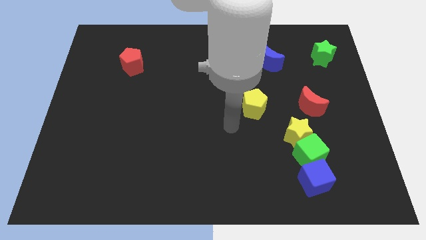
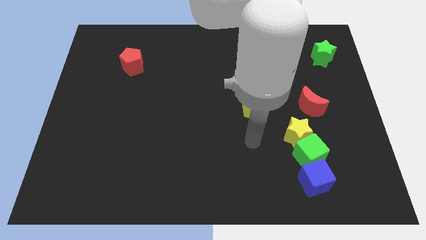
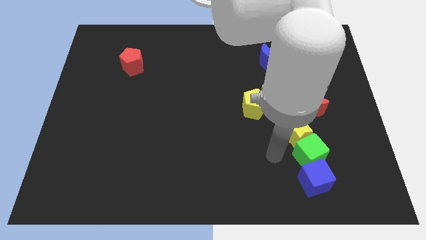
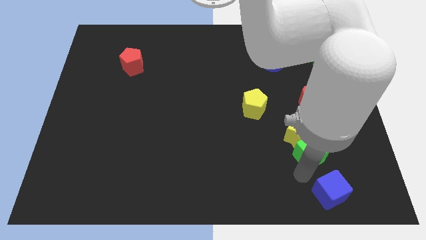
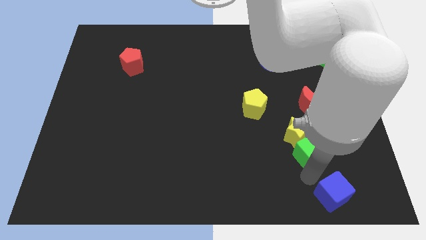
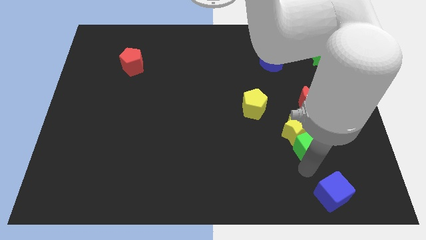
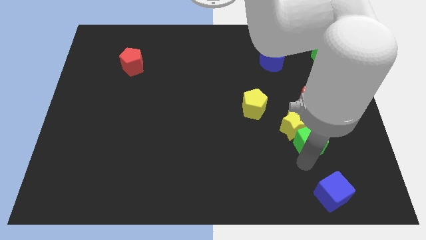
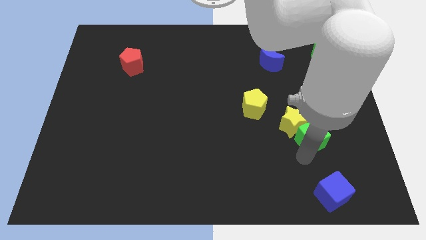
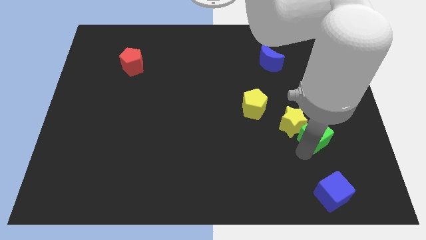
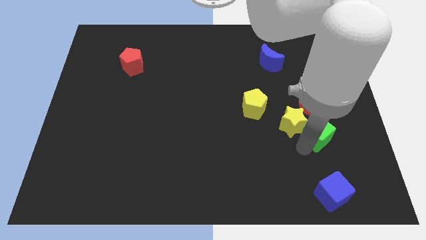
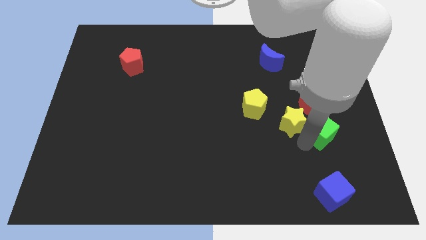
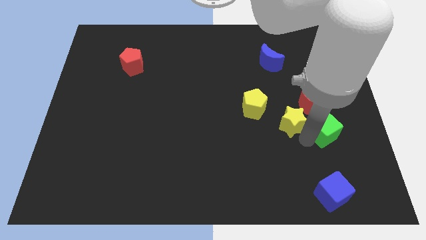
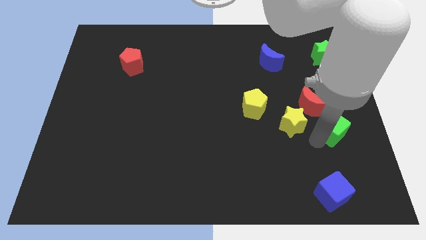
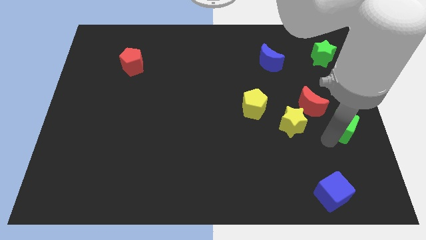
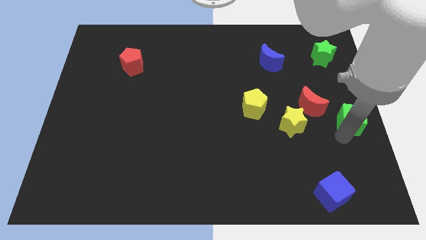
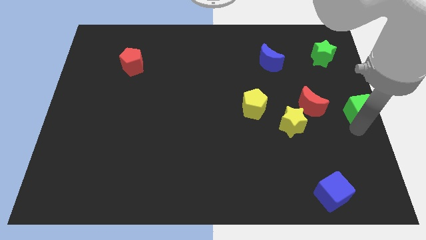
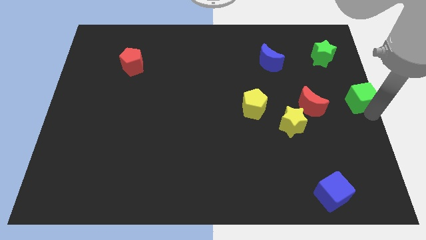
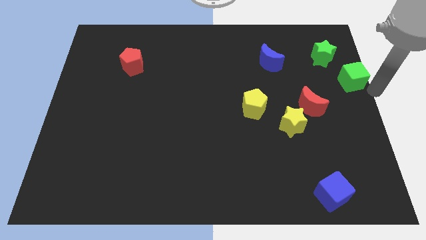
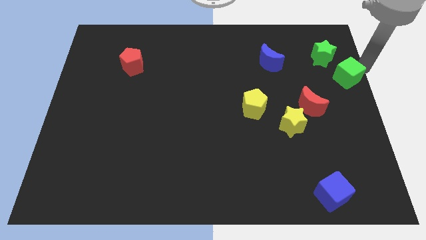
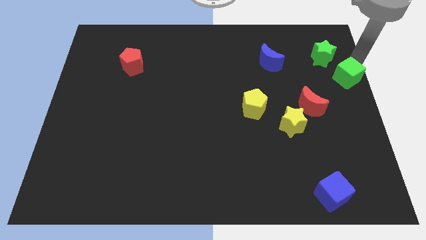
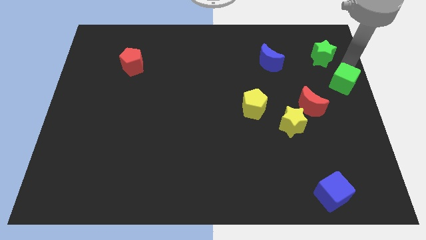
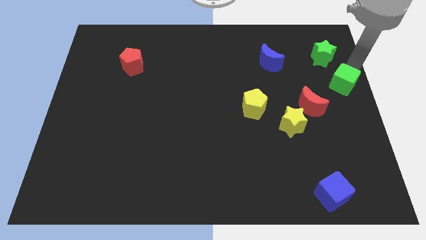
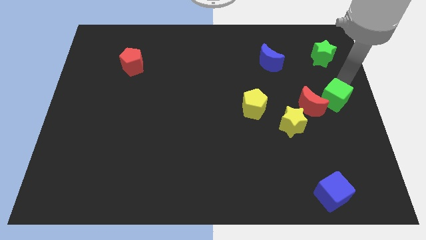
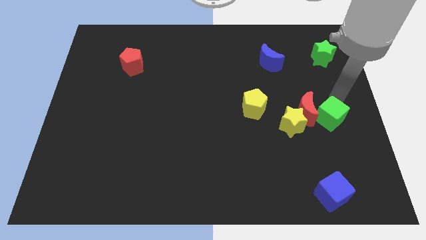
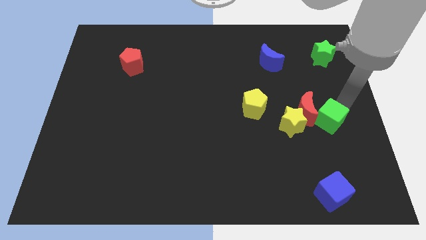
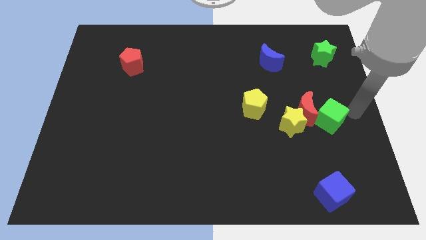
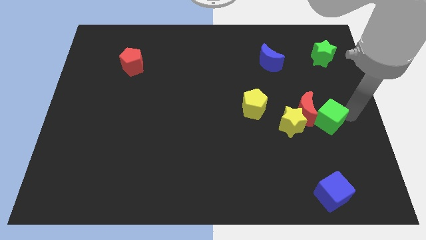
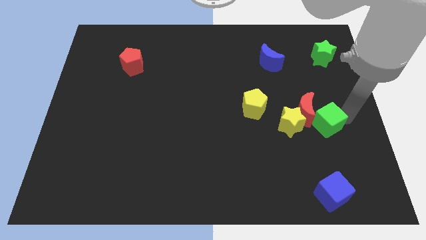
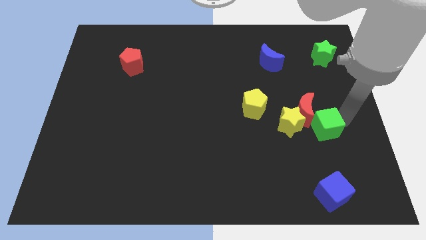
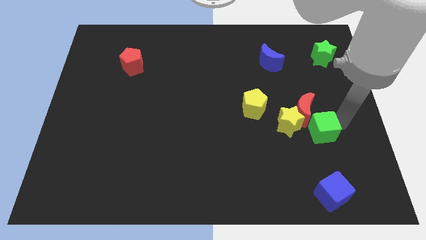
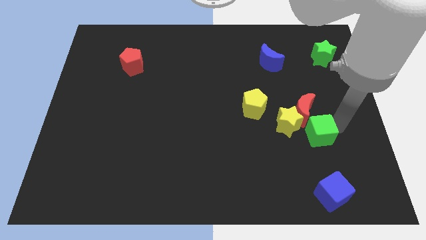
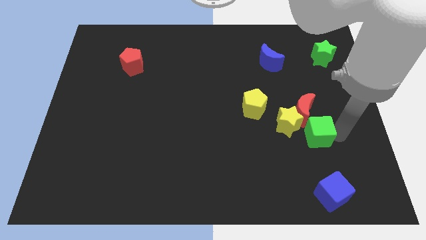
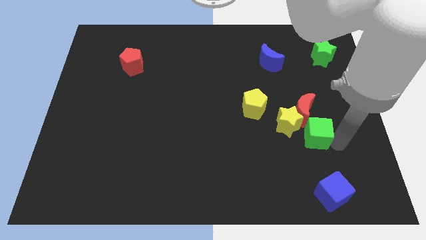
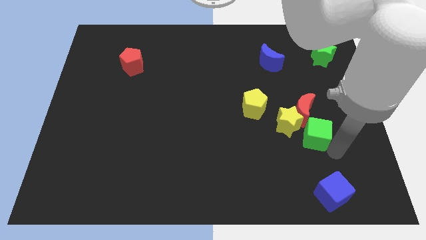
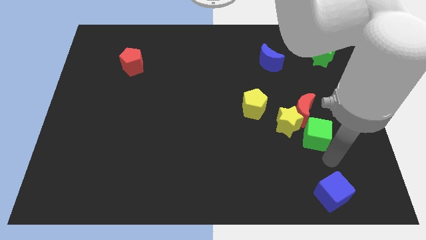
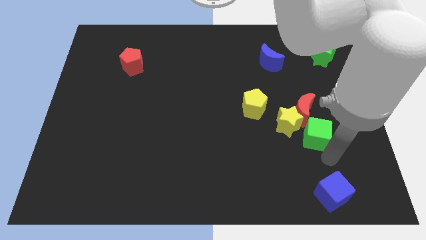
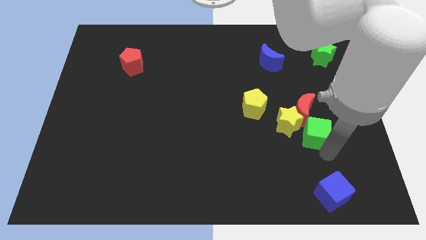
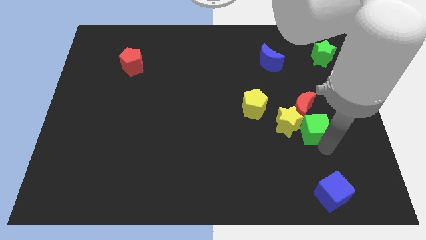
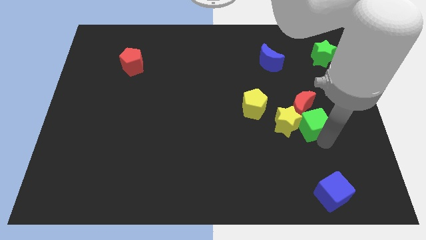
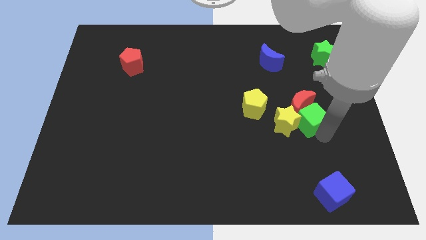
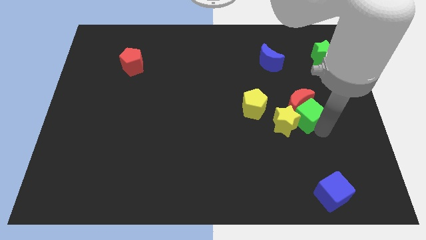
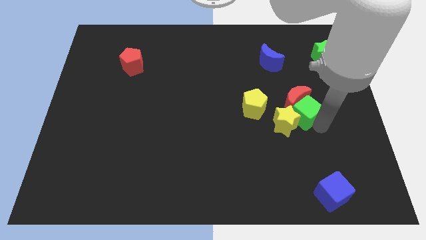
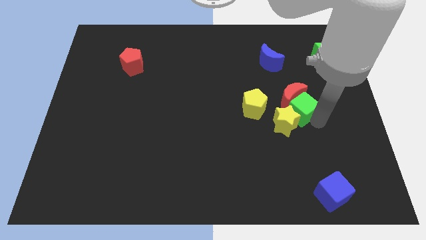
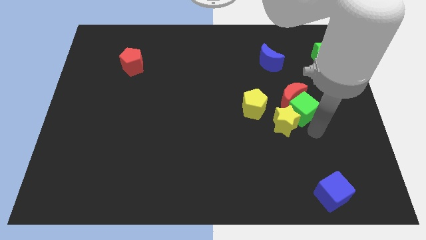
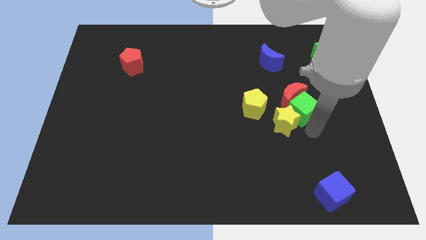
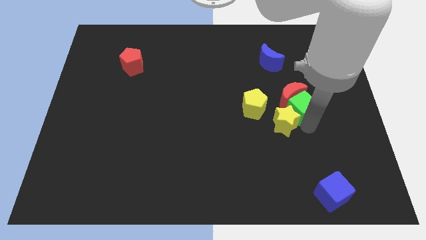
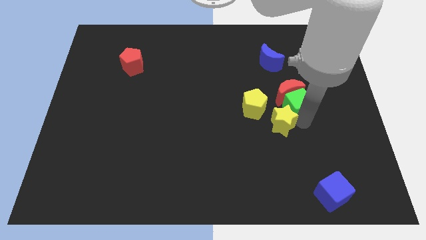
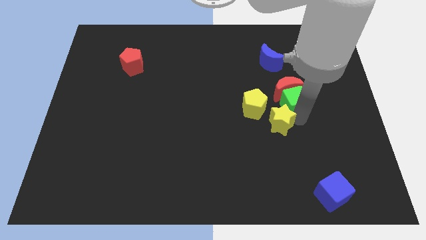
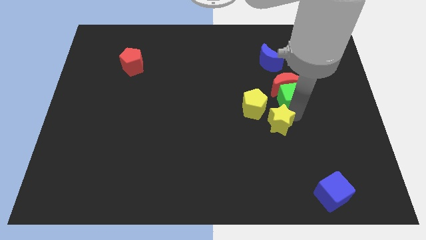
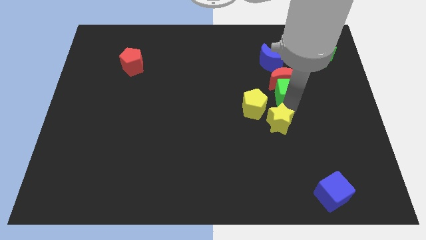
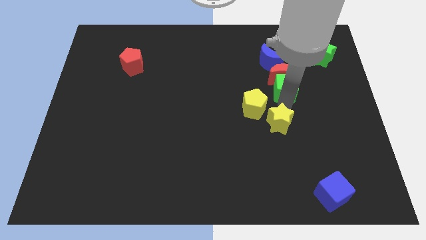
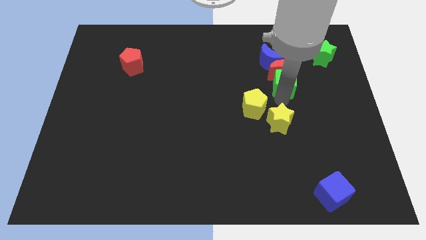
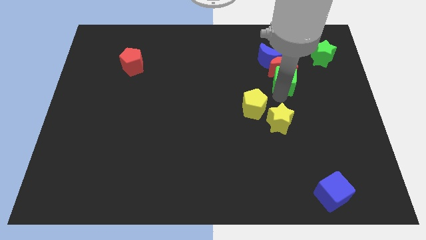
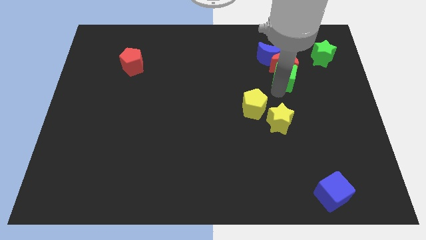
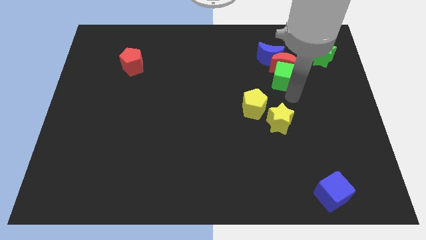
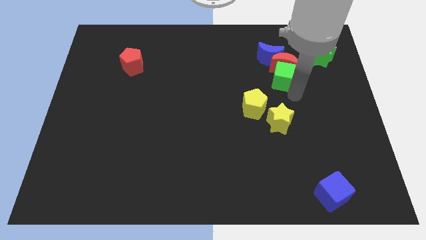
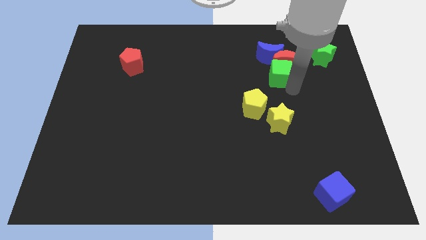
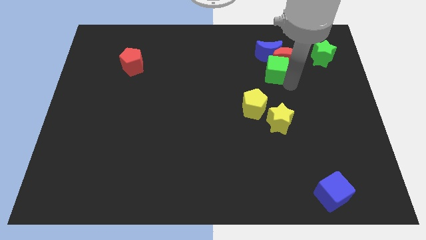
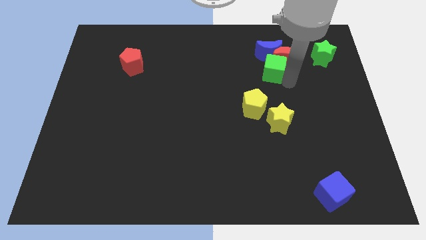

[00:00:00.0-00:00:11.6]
slide the green cube to the blue moon

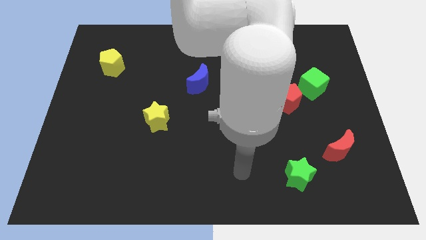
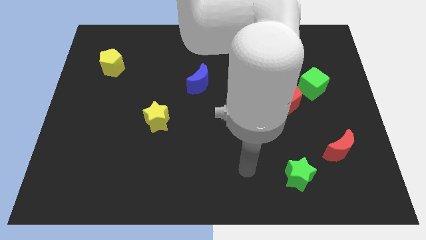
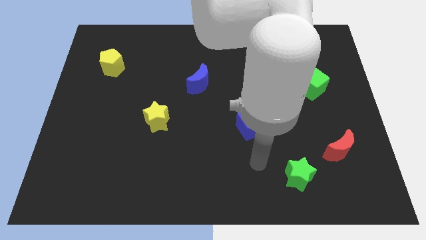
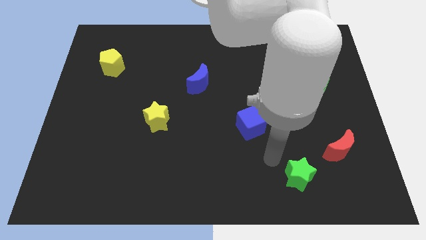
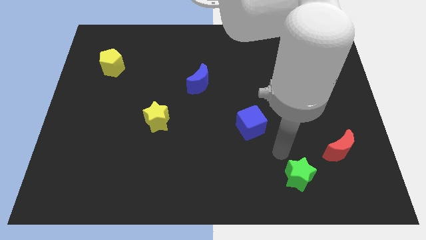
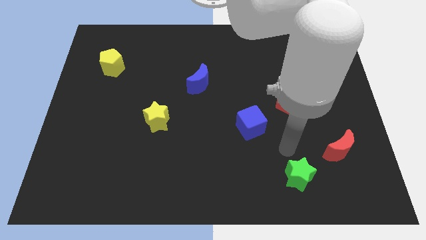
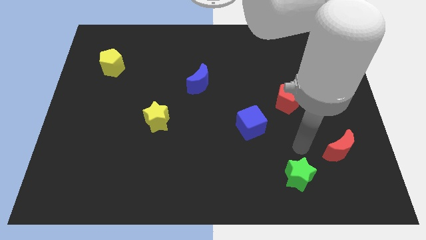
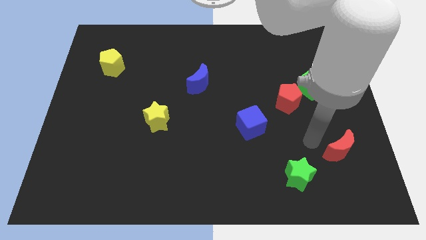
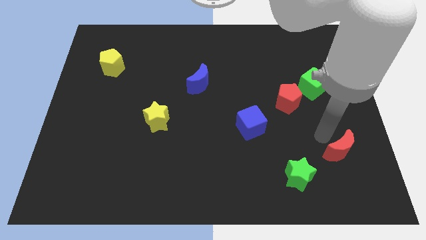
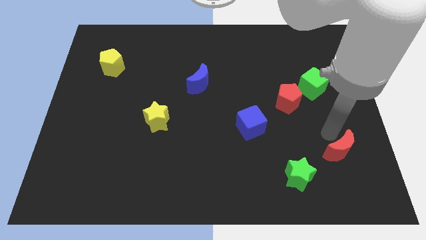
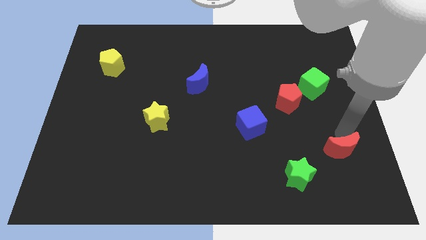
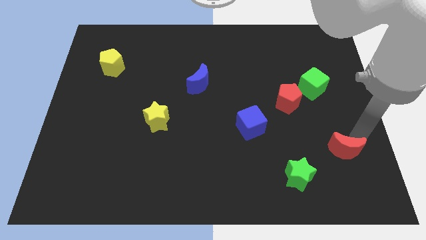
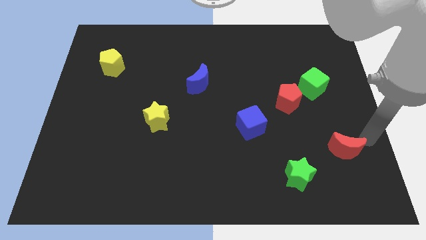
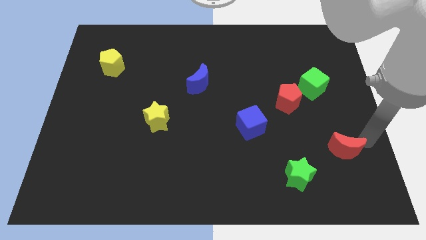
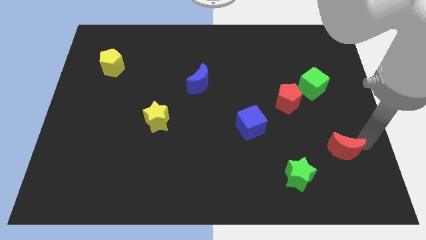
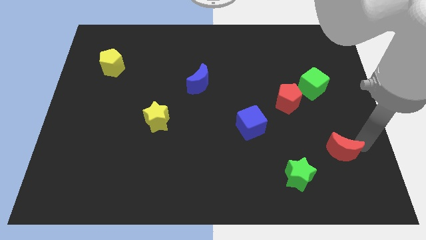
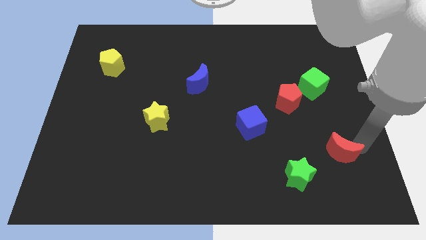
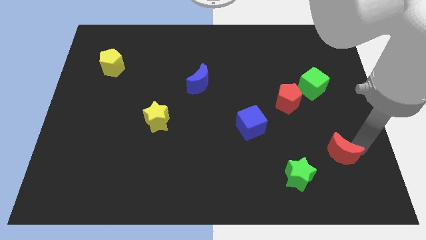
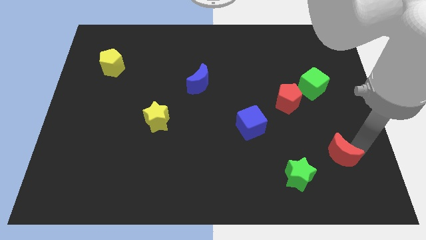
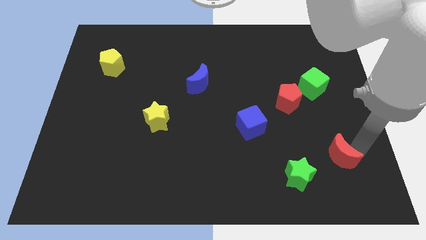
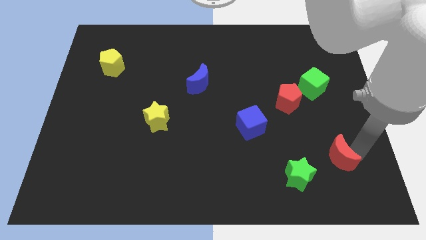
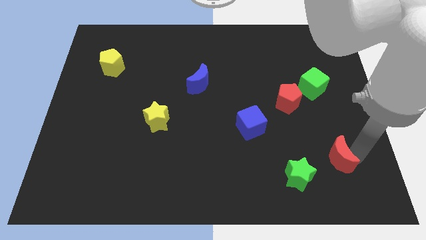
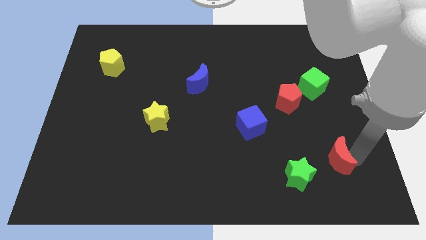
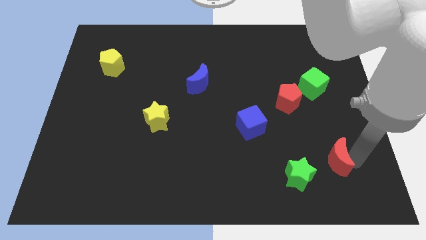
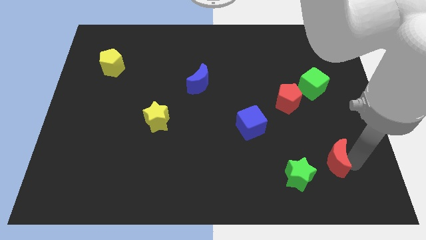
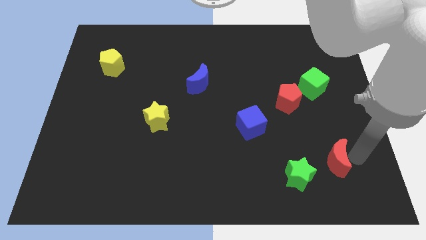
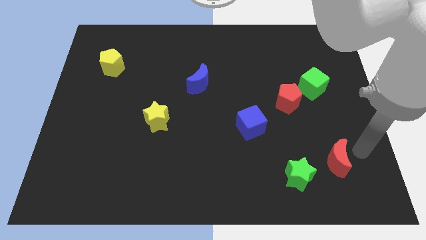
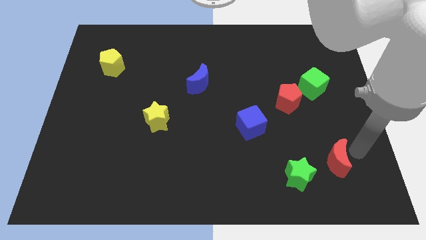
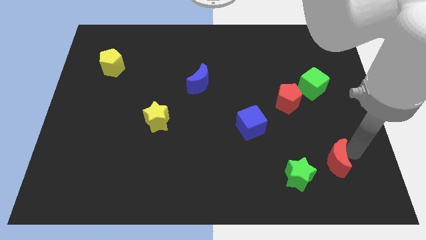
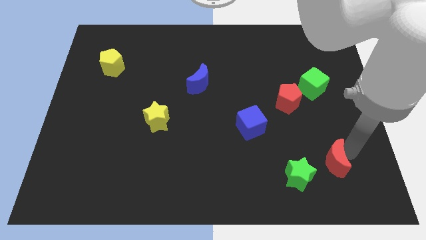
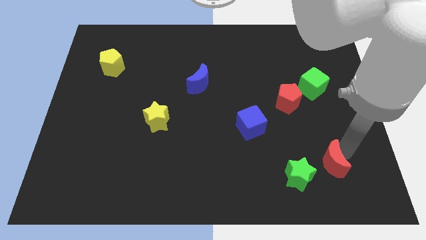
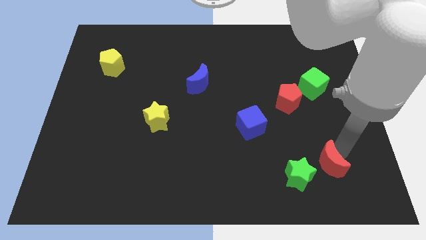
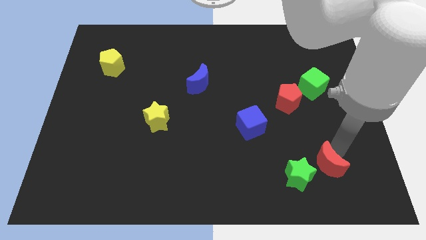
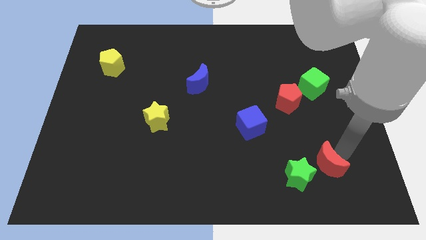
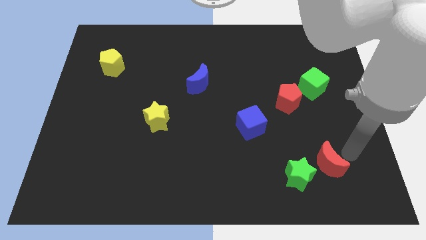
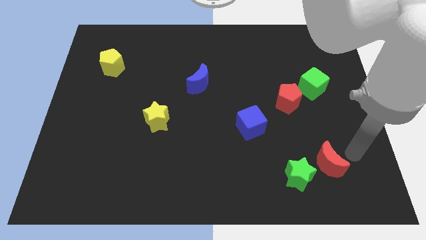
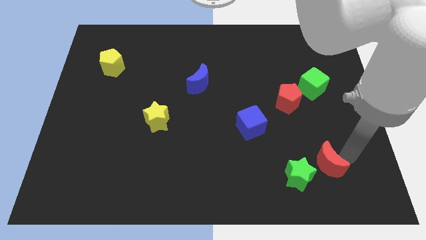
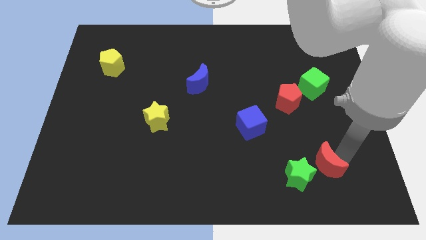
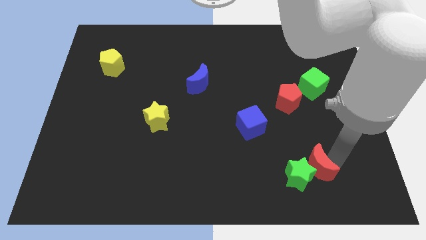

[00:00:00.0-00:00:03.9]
move the red moon next to the green star
